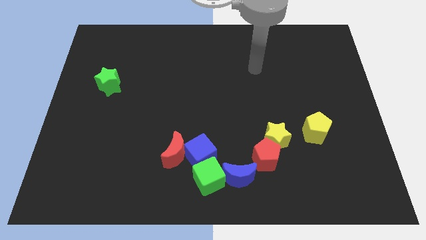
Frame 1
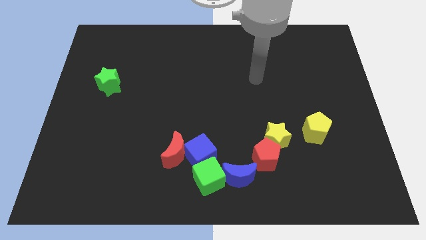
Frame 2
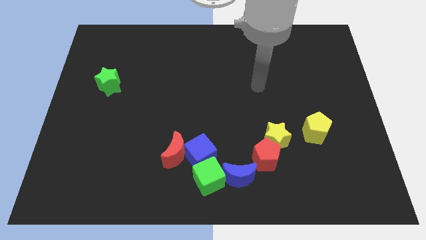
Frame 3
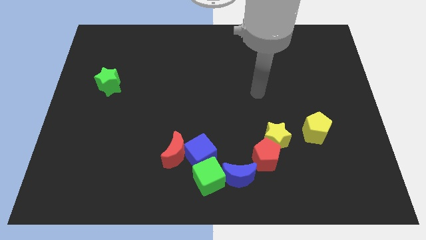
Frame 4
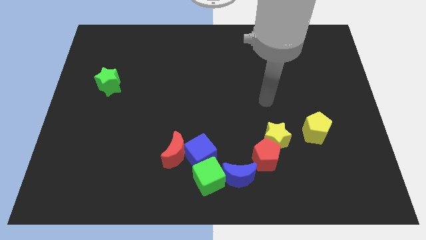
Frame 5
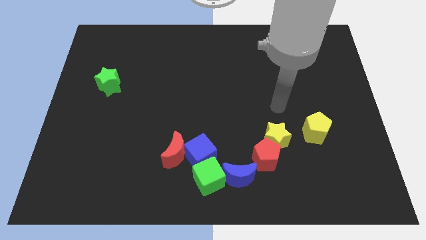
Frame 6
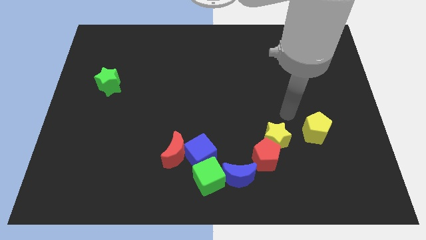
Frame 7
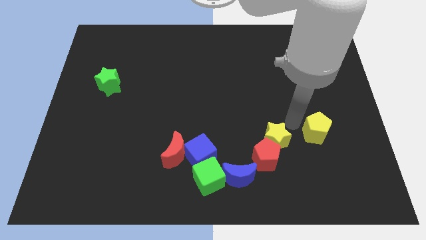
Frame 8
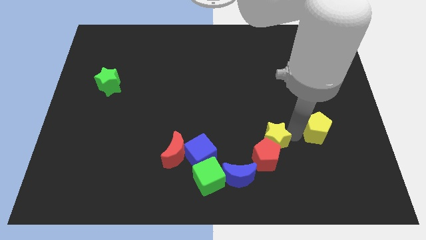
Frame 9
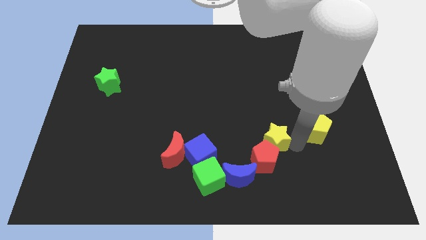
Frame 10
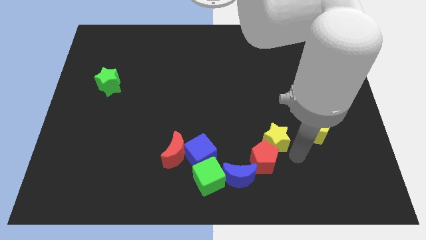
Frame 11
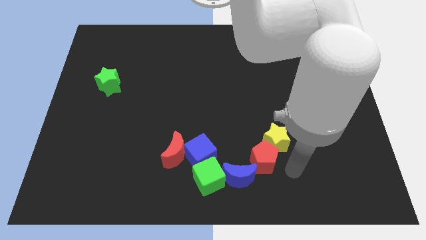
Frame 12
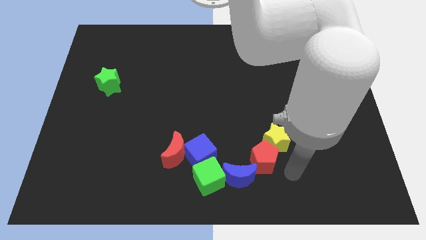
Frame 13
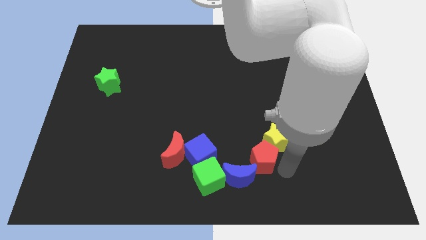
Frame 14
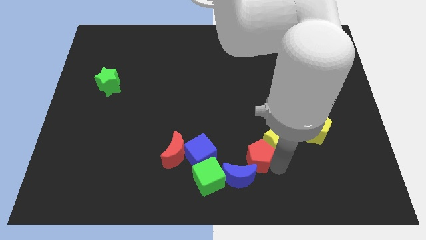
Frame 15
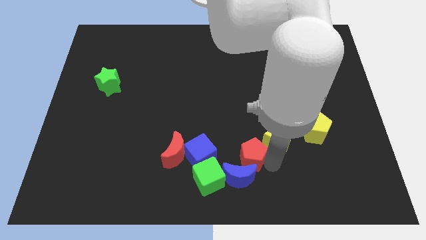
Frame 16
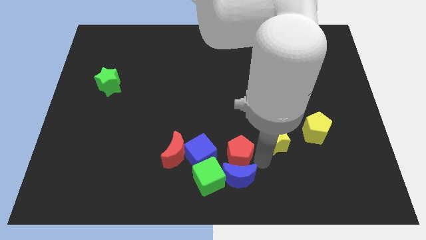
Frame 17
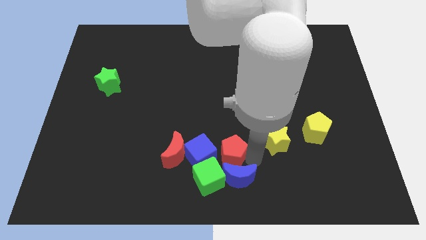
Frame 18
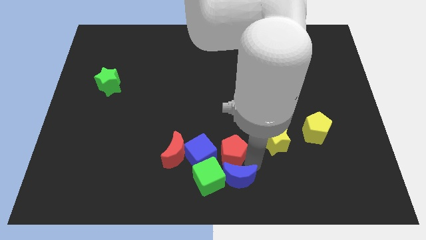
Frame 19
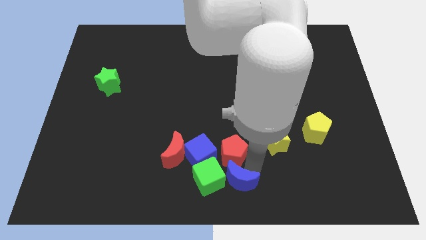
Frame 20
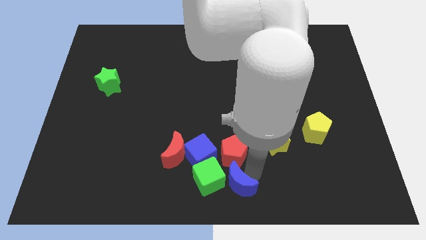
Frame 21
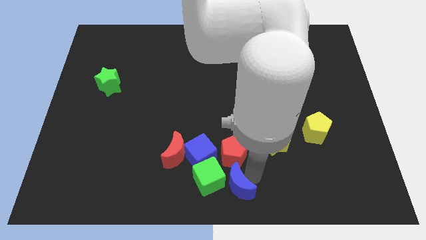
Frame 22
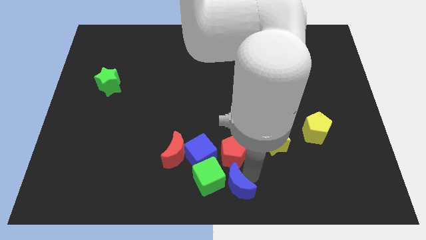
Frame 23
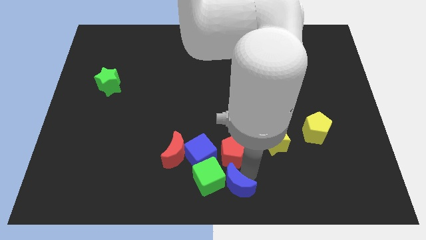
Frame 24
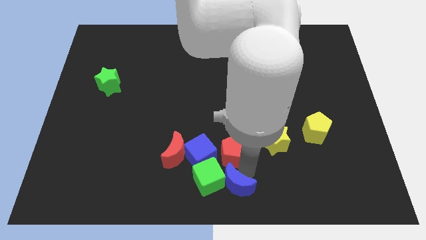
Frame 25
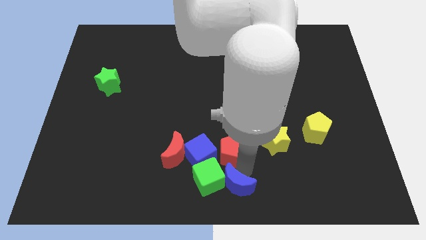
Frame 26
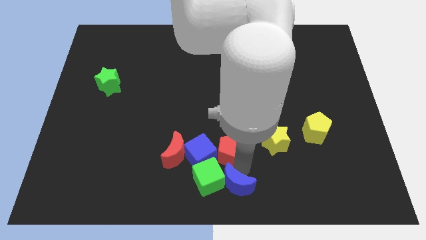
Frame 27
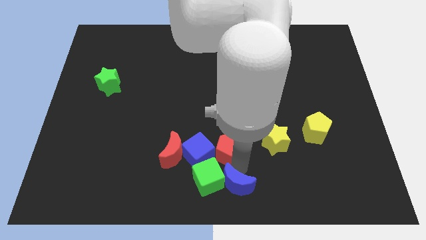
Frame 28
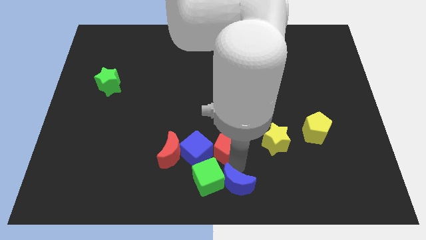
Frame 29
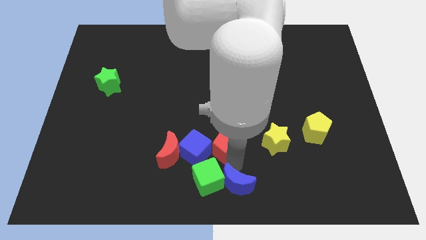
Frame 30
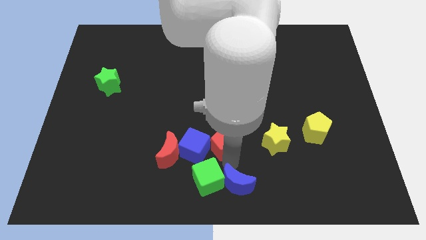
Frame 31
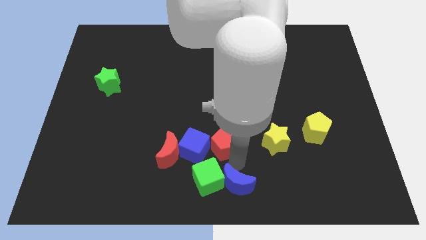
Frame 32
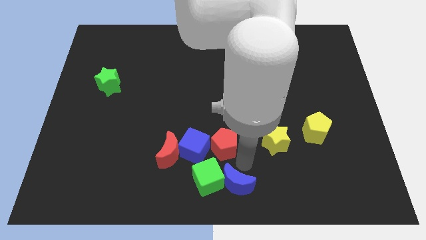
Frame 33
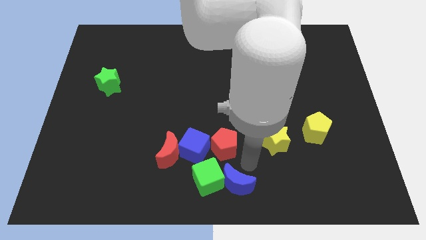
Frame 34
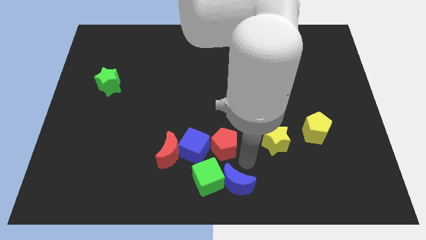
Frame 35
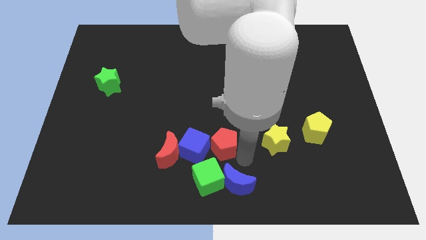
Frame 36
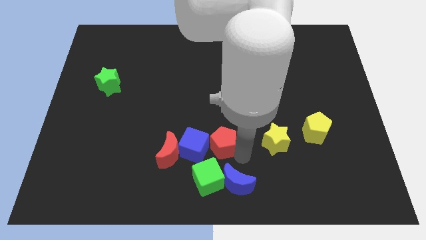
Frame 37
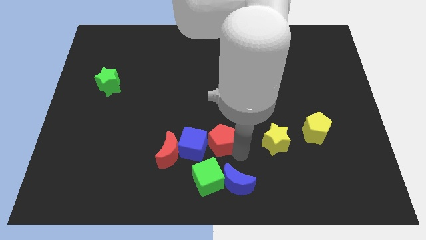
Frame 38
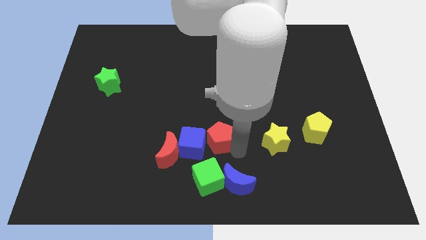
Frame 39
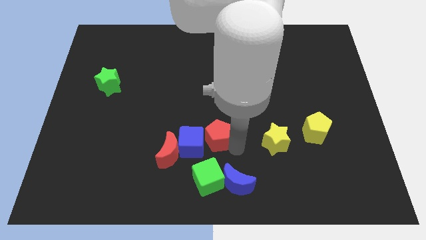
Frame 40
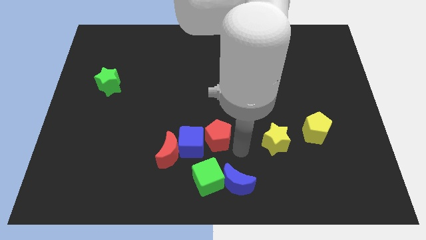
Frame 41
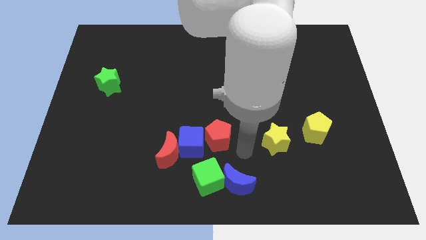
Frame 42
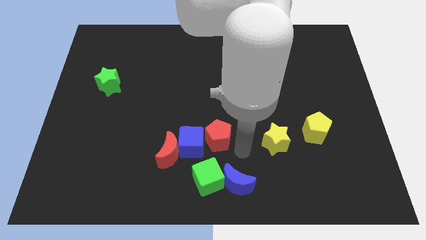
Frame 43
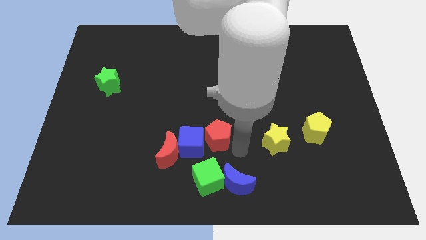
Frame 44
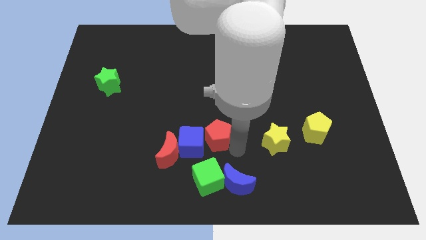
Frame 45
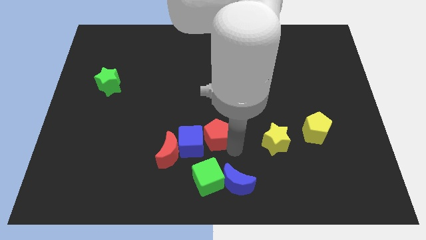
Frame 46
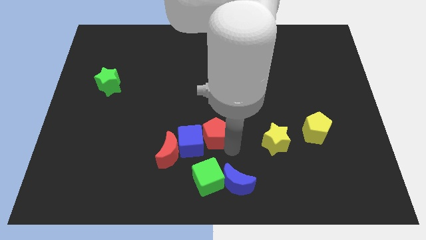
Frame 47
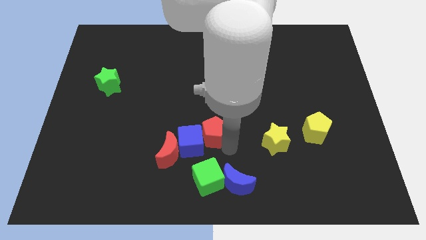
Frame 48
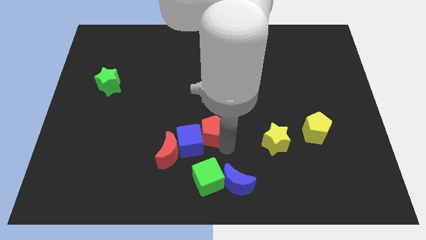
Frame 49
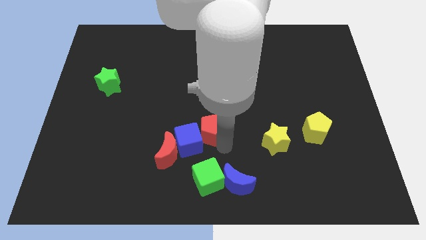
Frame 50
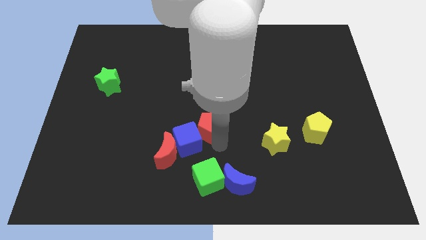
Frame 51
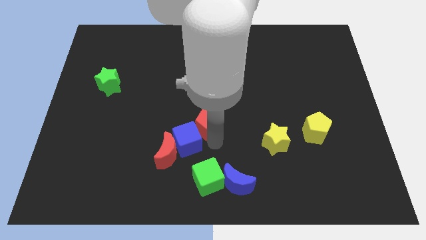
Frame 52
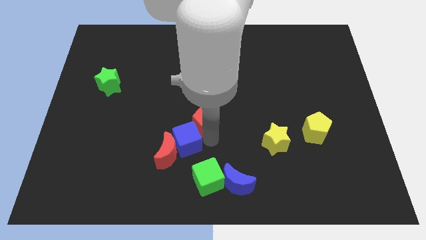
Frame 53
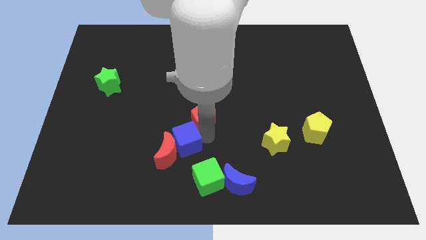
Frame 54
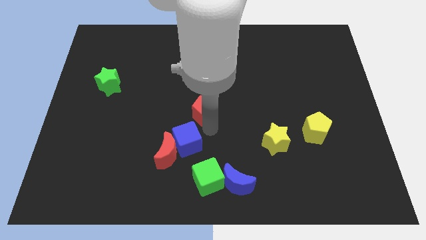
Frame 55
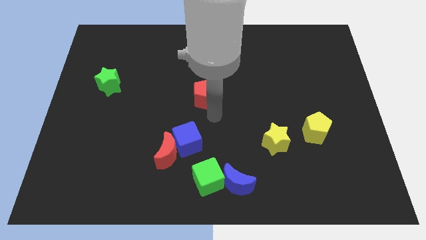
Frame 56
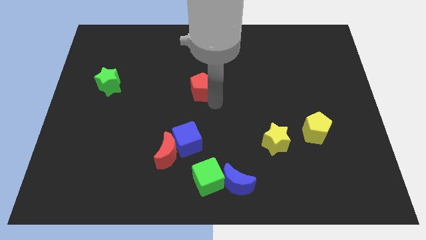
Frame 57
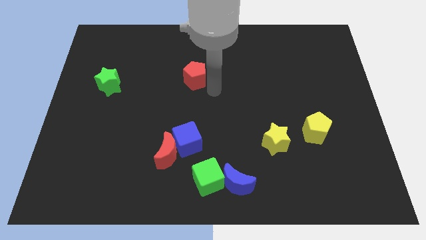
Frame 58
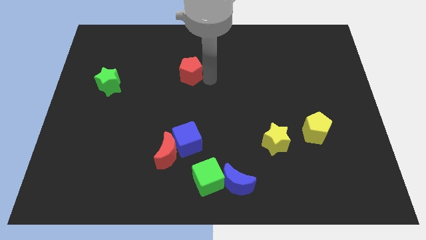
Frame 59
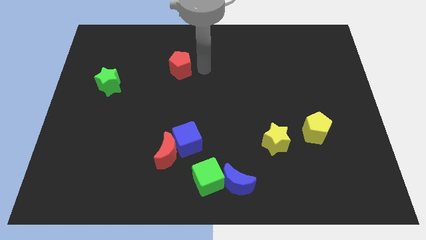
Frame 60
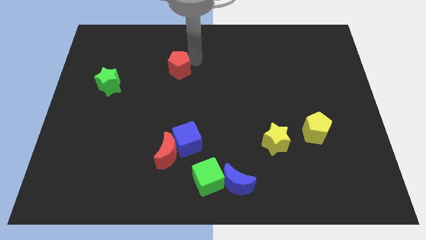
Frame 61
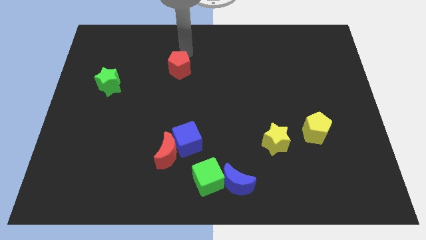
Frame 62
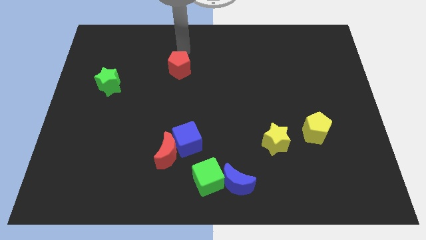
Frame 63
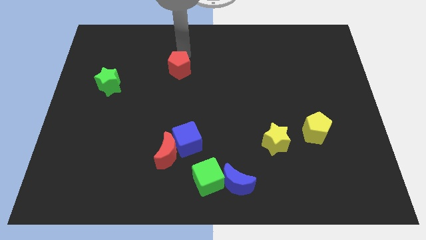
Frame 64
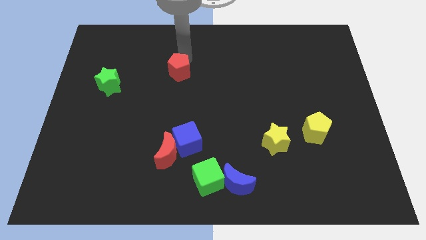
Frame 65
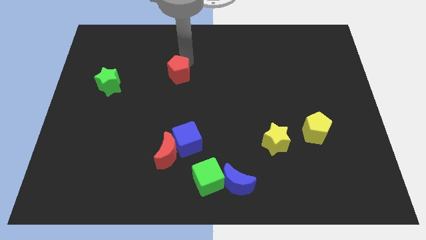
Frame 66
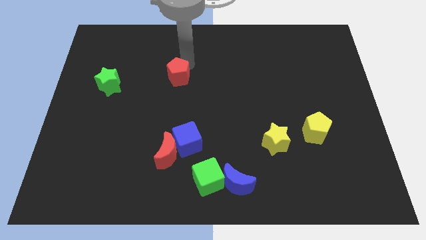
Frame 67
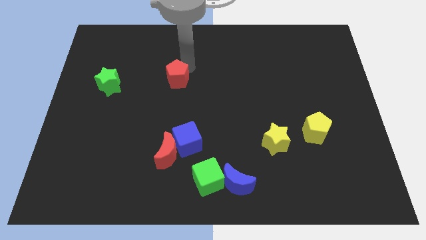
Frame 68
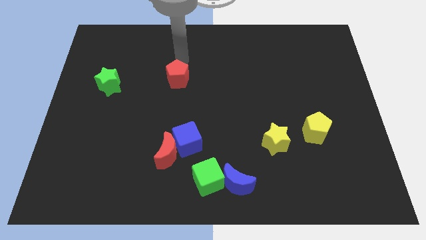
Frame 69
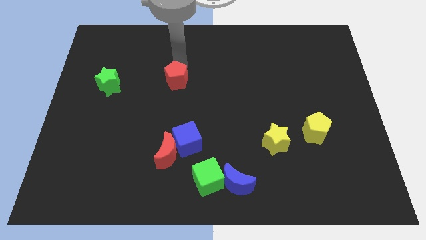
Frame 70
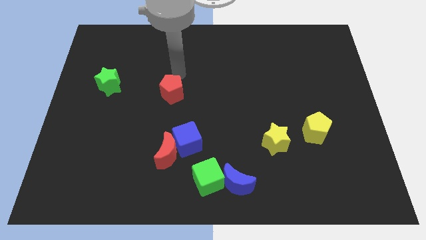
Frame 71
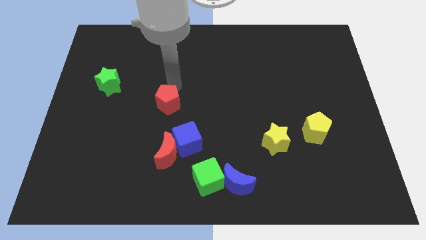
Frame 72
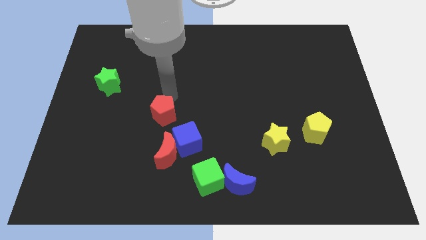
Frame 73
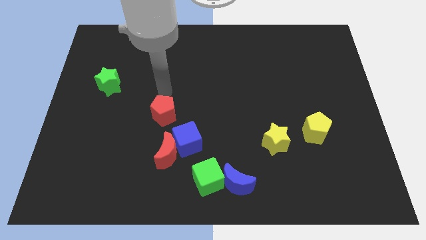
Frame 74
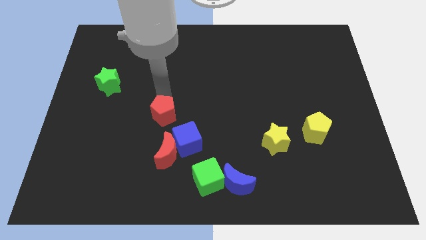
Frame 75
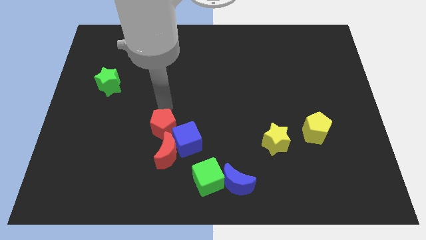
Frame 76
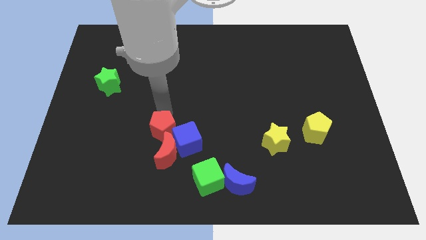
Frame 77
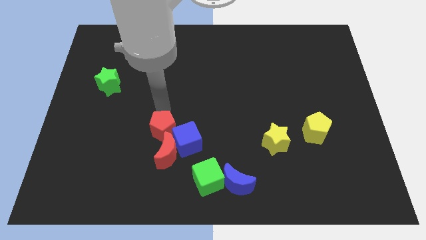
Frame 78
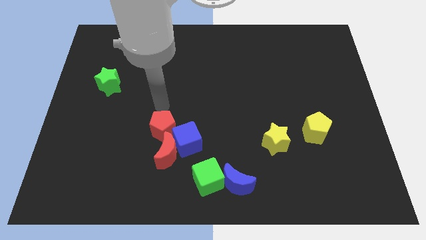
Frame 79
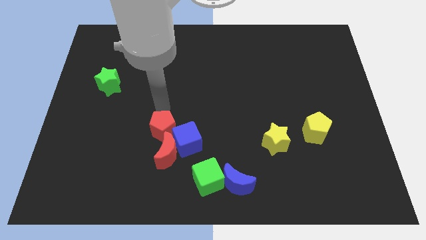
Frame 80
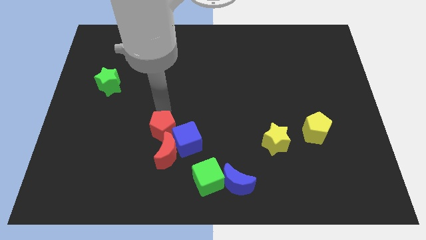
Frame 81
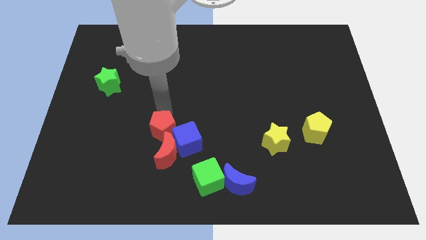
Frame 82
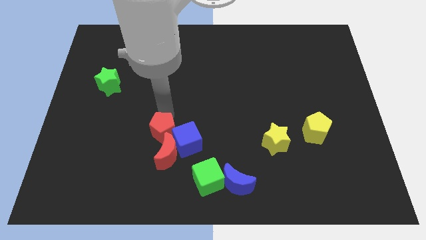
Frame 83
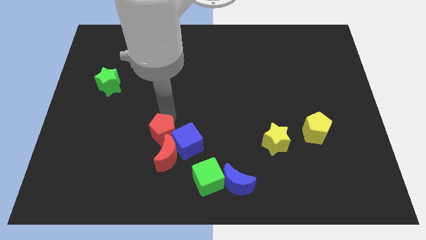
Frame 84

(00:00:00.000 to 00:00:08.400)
push the red pentagon towards the red moon
